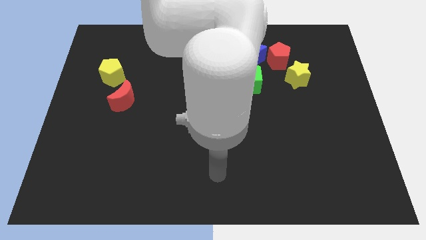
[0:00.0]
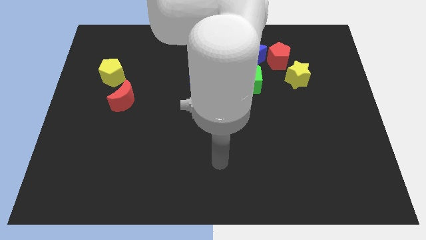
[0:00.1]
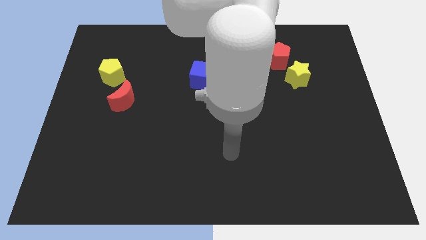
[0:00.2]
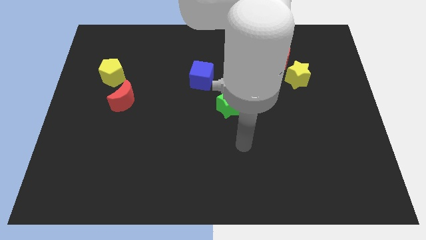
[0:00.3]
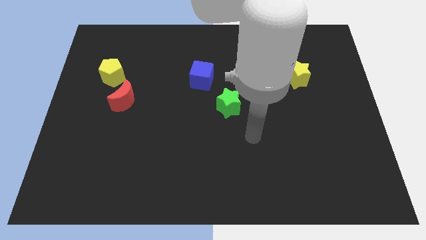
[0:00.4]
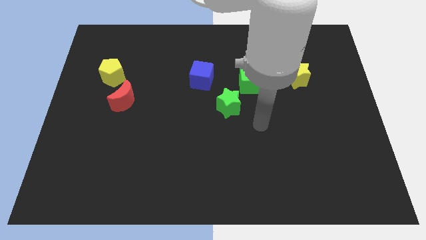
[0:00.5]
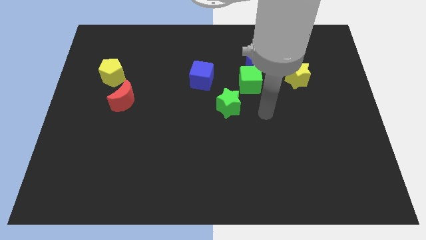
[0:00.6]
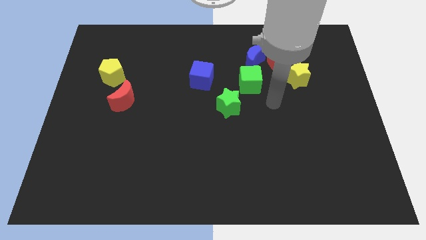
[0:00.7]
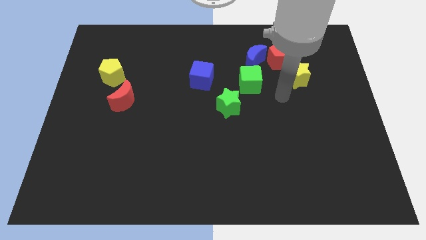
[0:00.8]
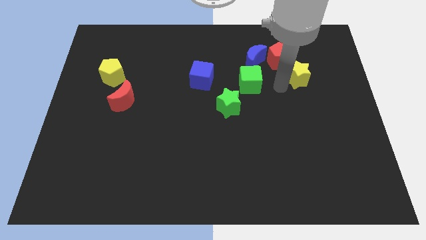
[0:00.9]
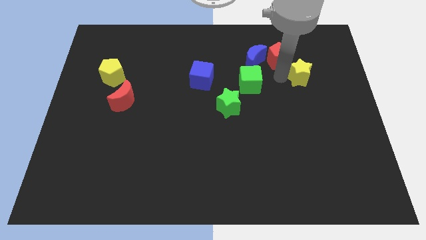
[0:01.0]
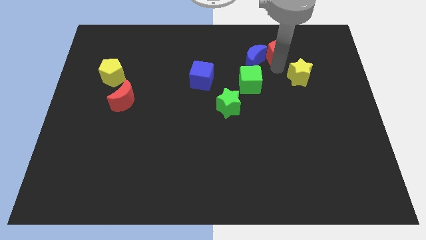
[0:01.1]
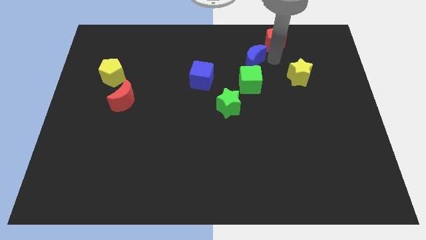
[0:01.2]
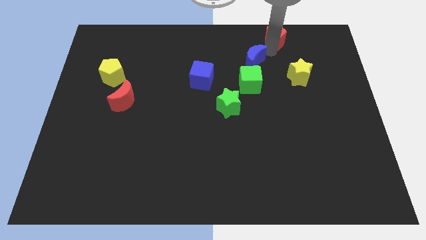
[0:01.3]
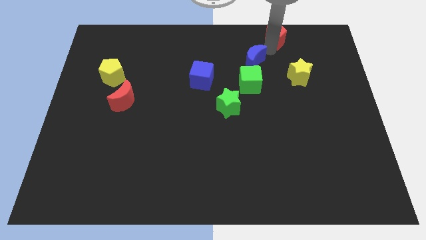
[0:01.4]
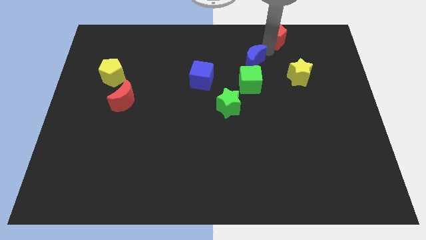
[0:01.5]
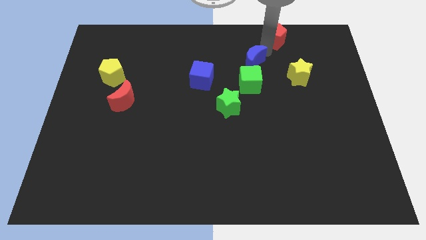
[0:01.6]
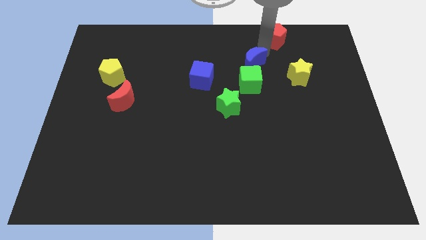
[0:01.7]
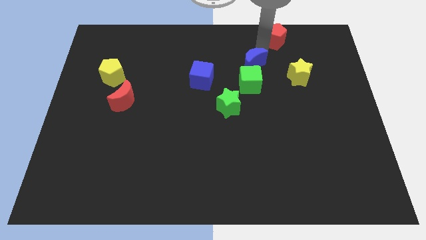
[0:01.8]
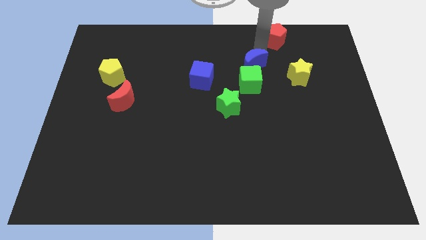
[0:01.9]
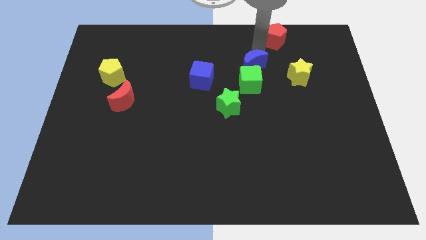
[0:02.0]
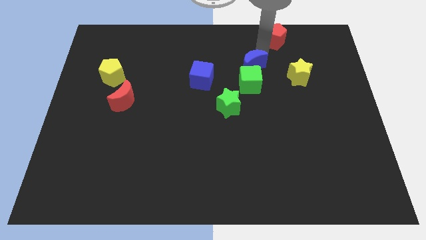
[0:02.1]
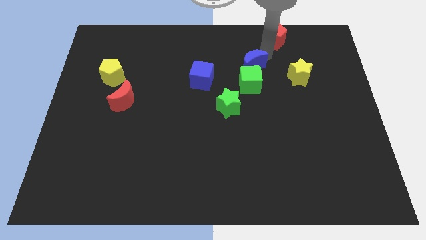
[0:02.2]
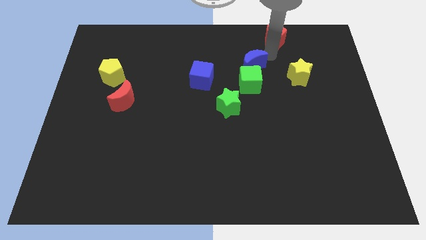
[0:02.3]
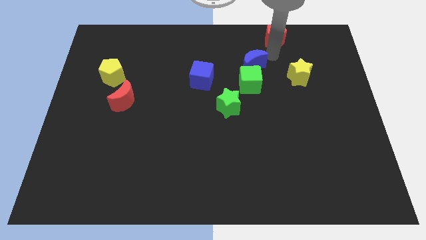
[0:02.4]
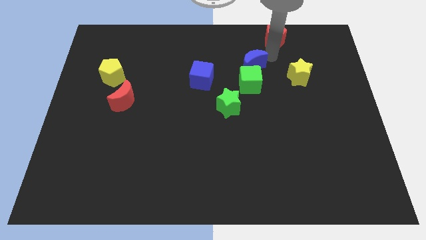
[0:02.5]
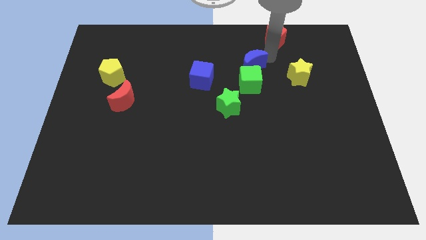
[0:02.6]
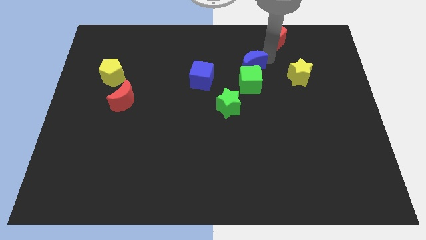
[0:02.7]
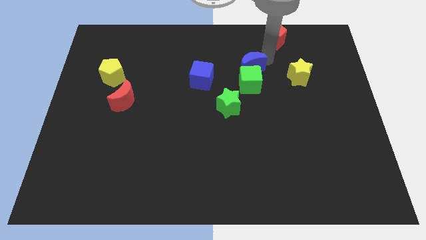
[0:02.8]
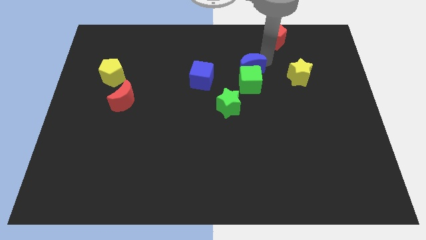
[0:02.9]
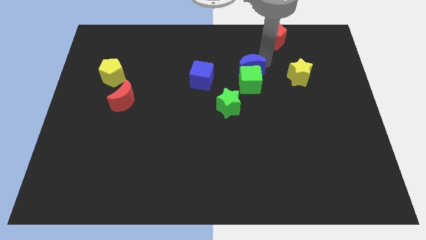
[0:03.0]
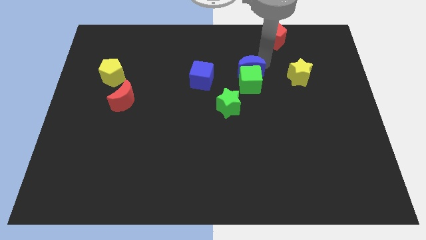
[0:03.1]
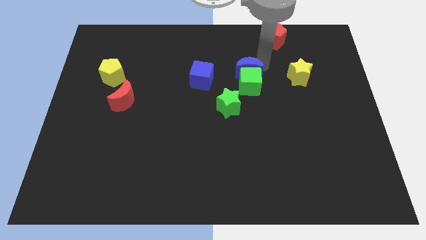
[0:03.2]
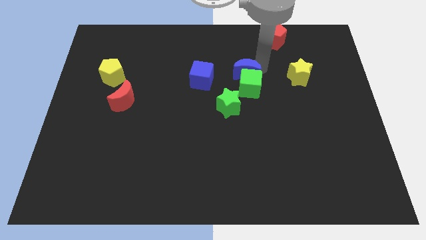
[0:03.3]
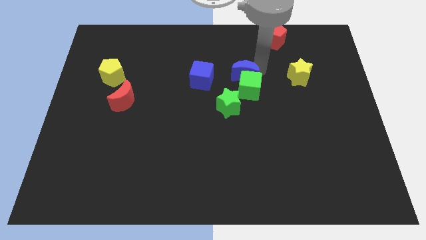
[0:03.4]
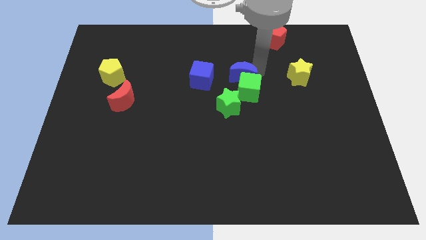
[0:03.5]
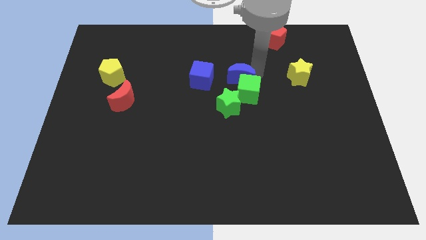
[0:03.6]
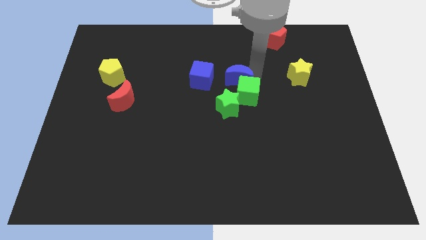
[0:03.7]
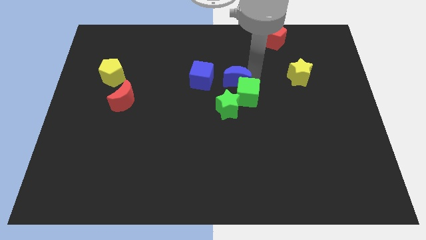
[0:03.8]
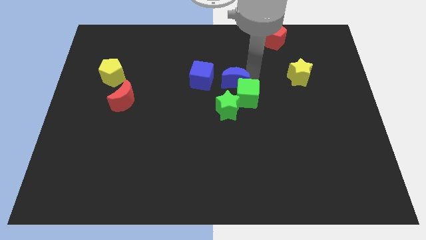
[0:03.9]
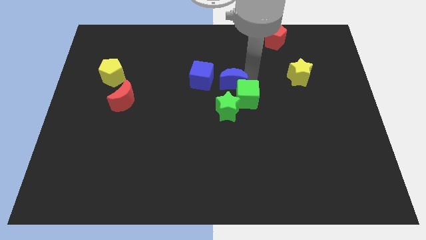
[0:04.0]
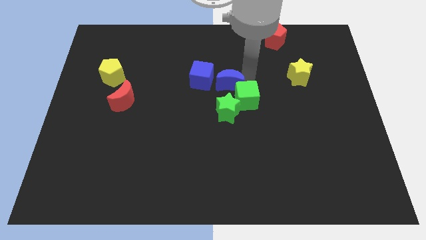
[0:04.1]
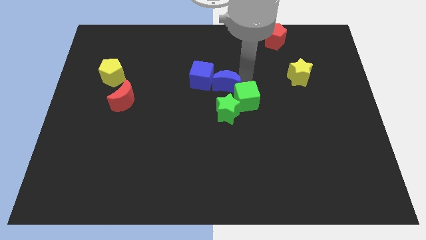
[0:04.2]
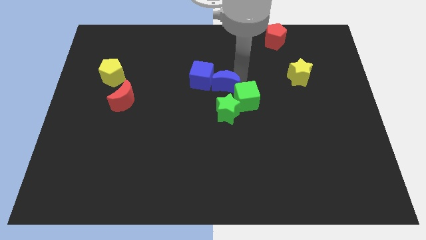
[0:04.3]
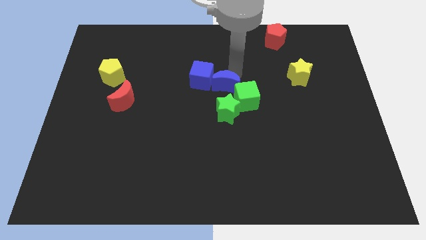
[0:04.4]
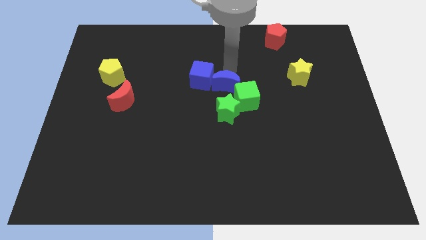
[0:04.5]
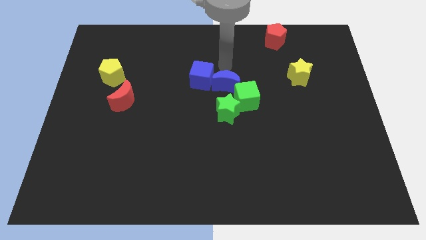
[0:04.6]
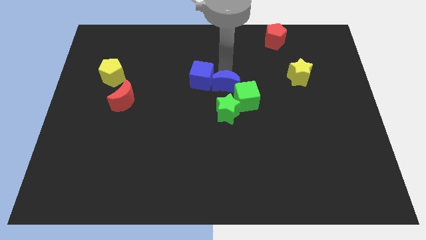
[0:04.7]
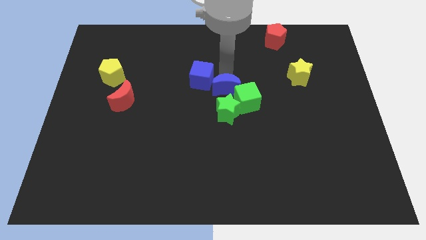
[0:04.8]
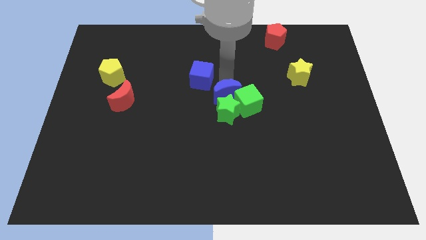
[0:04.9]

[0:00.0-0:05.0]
slide the blue moon next to the green star

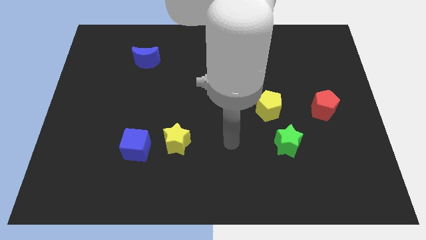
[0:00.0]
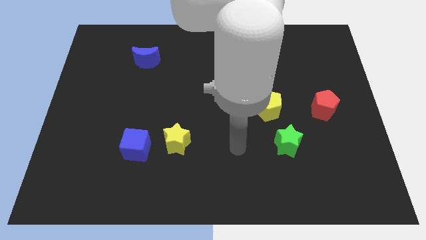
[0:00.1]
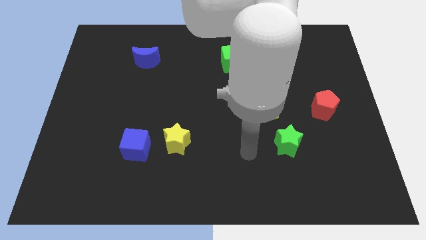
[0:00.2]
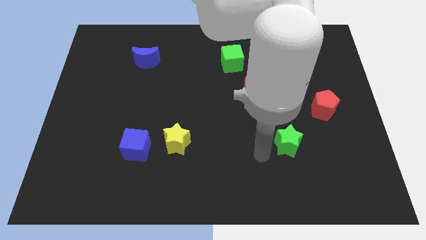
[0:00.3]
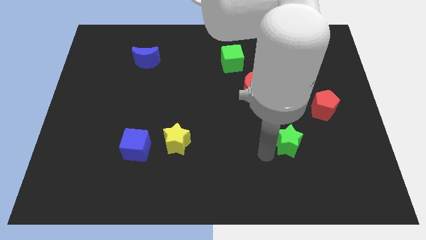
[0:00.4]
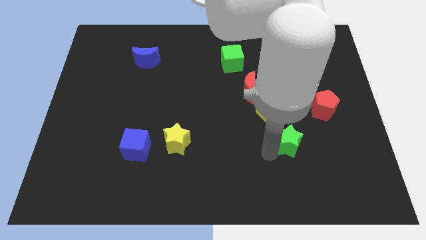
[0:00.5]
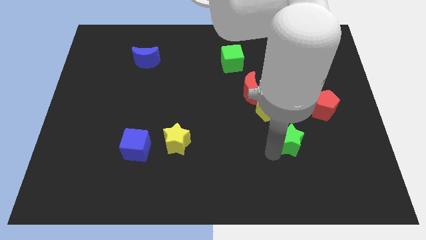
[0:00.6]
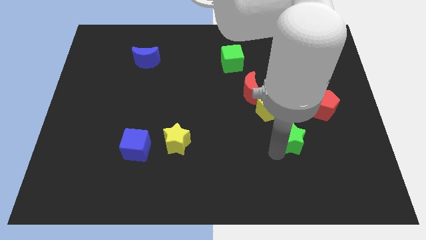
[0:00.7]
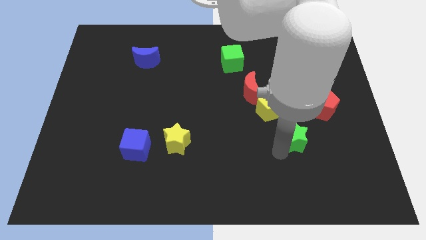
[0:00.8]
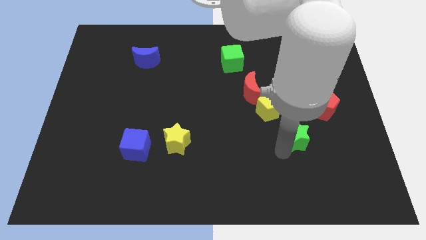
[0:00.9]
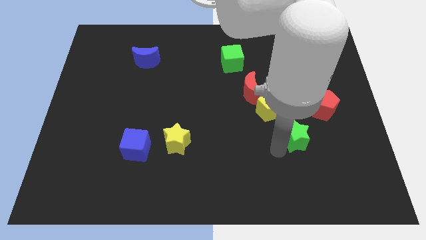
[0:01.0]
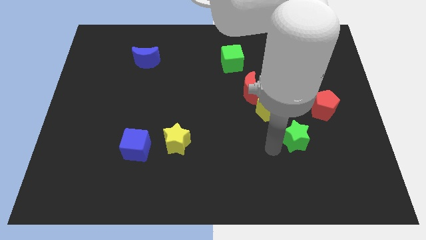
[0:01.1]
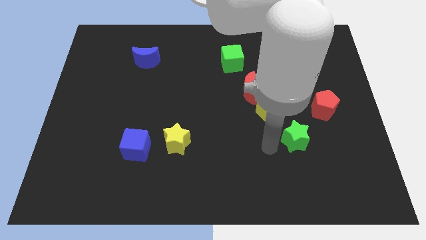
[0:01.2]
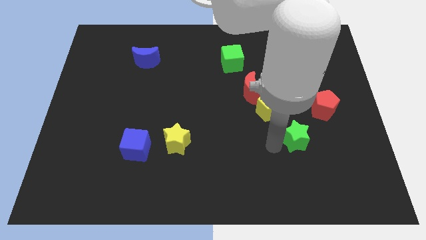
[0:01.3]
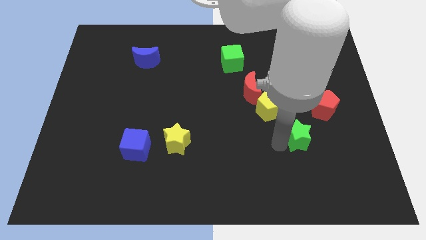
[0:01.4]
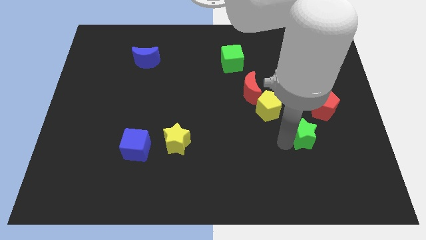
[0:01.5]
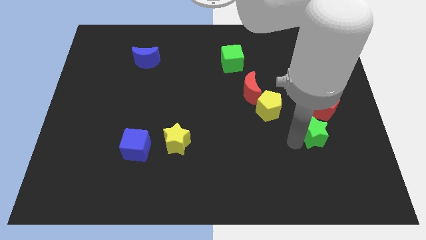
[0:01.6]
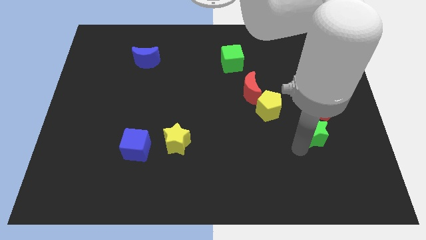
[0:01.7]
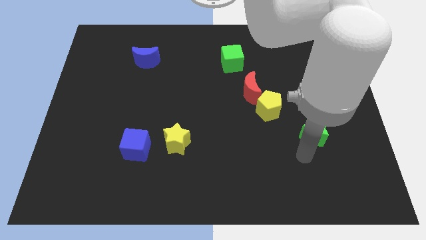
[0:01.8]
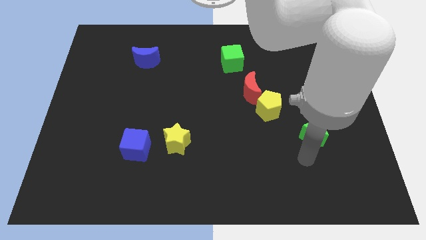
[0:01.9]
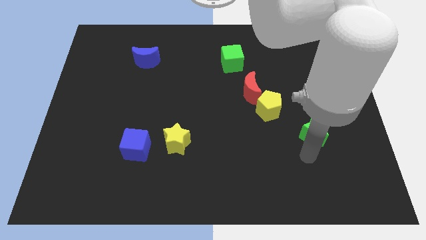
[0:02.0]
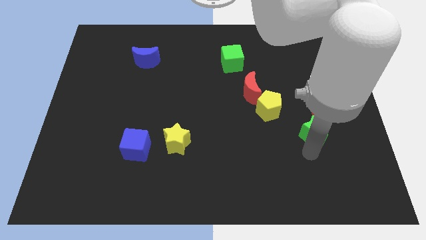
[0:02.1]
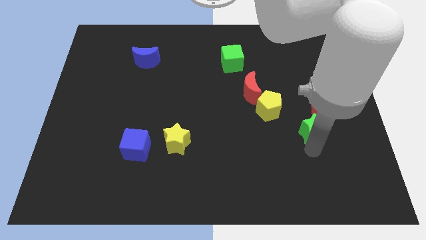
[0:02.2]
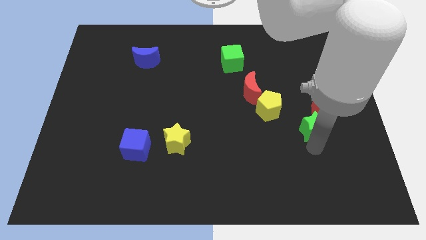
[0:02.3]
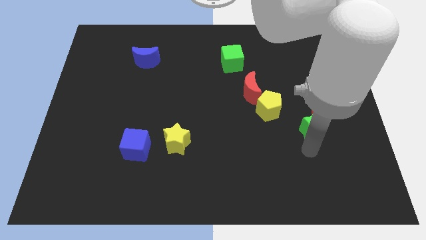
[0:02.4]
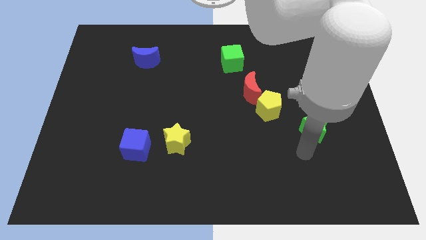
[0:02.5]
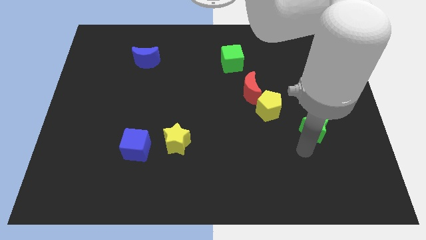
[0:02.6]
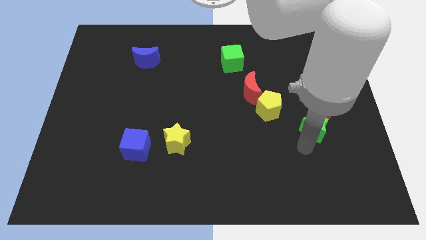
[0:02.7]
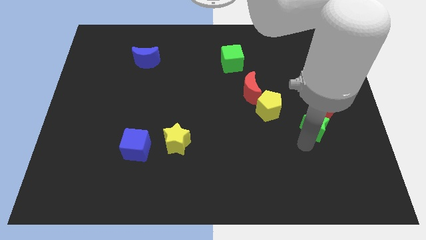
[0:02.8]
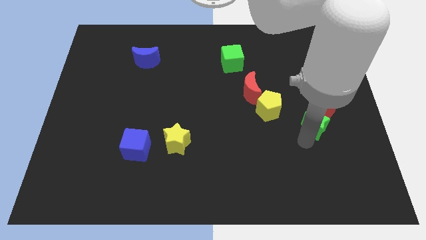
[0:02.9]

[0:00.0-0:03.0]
move the green star to the red pentagon
